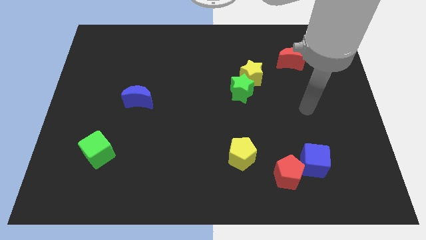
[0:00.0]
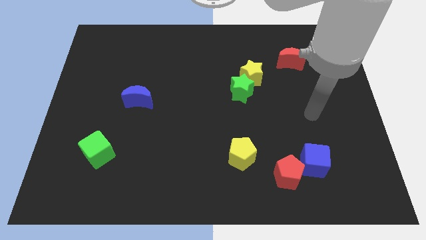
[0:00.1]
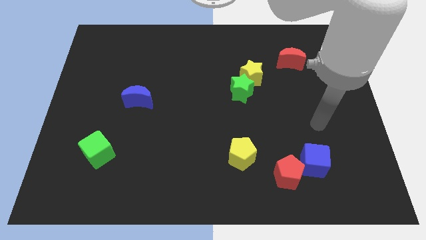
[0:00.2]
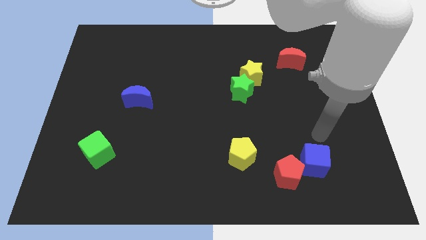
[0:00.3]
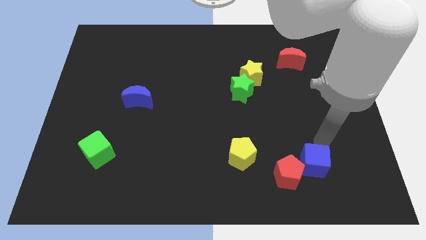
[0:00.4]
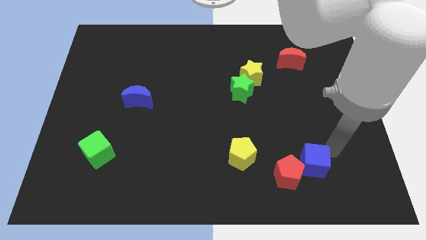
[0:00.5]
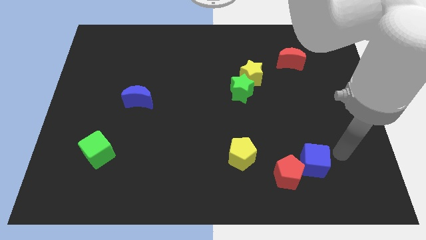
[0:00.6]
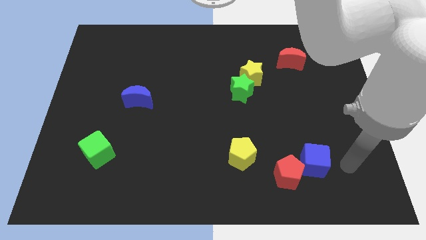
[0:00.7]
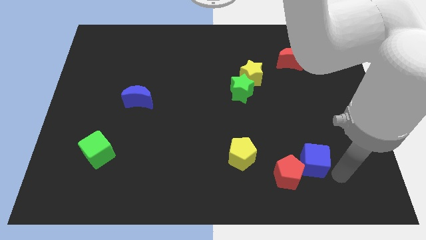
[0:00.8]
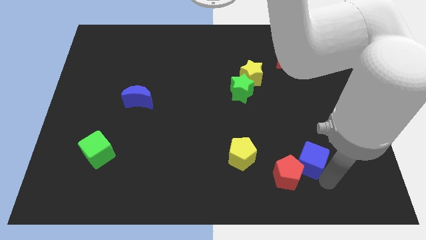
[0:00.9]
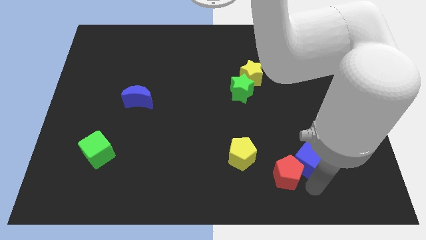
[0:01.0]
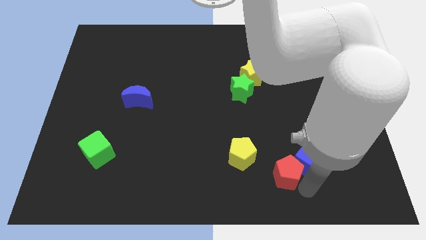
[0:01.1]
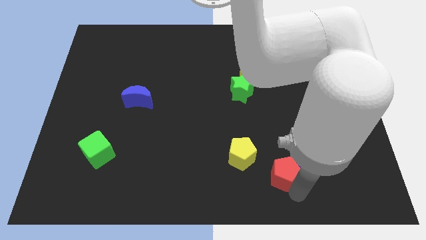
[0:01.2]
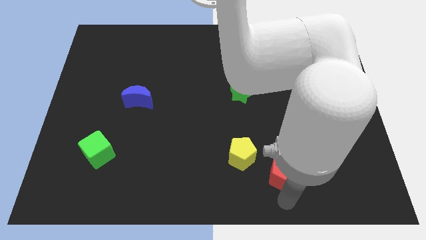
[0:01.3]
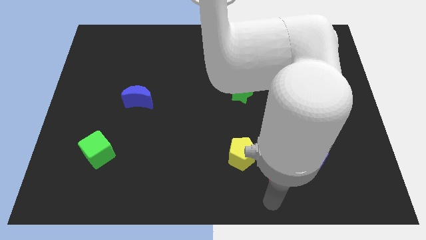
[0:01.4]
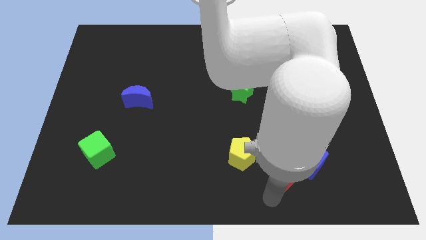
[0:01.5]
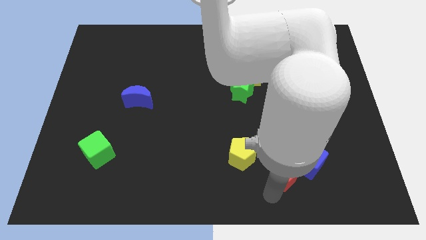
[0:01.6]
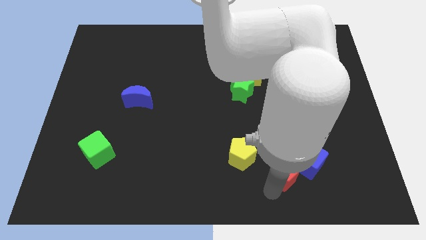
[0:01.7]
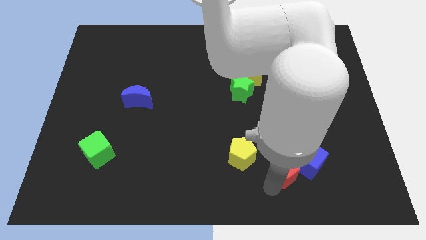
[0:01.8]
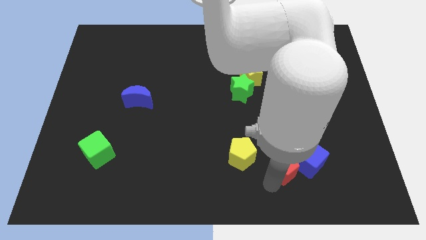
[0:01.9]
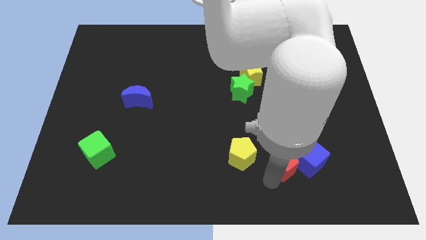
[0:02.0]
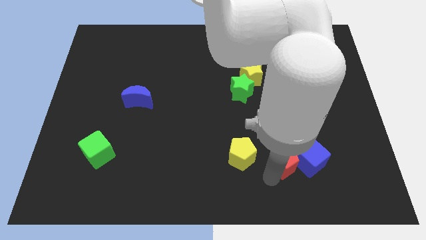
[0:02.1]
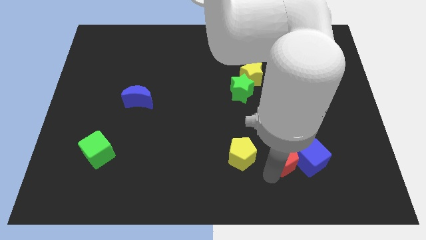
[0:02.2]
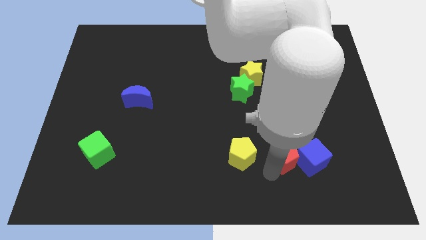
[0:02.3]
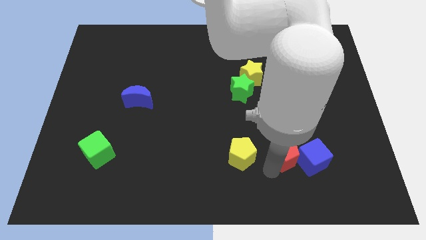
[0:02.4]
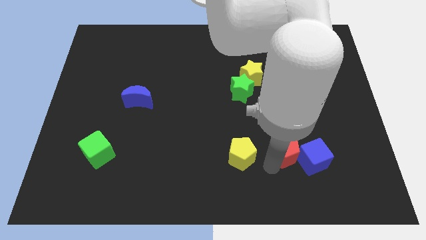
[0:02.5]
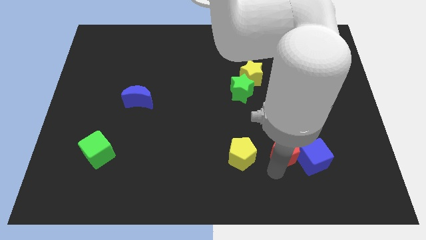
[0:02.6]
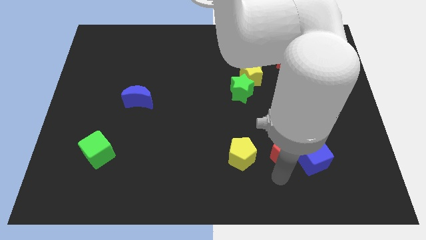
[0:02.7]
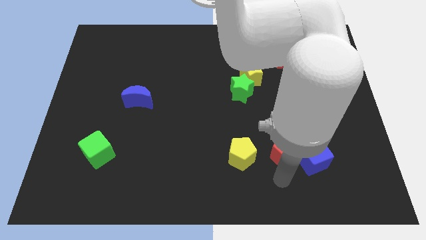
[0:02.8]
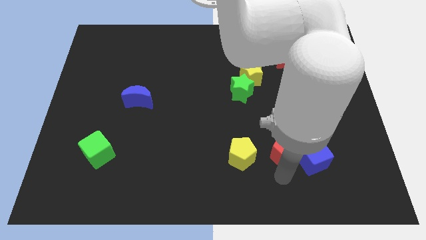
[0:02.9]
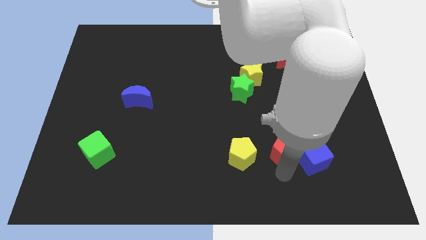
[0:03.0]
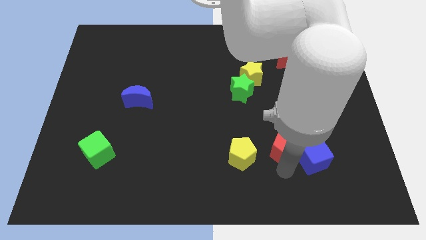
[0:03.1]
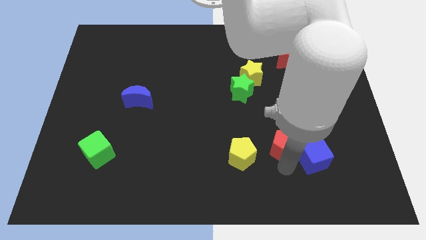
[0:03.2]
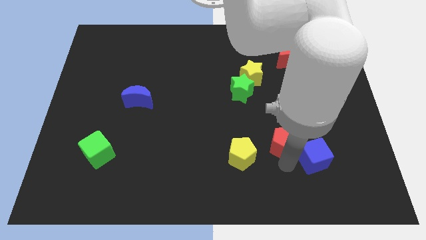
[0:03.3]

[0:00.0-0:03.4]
move the red pentagon upwards a little bit

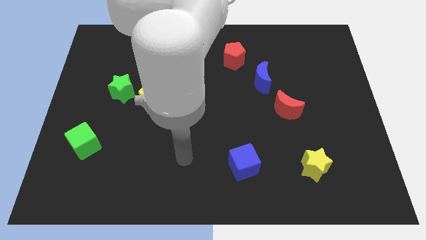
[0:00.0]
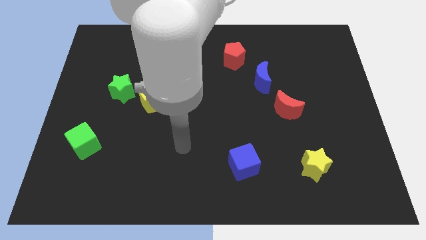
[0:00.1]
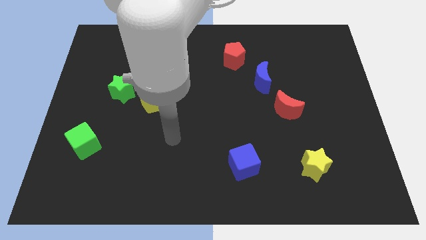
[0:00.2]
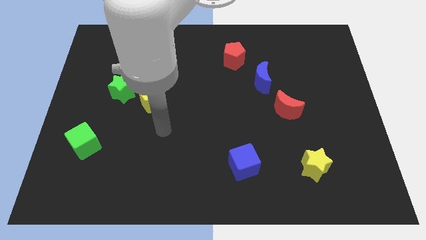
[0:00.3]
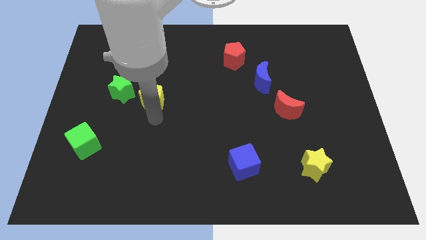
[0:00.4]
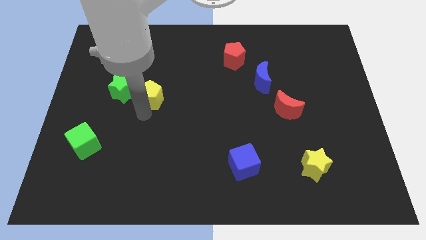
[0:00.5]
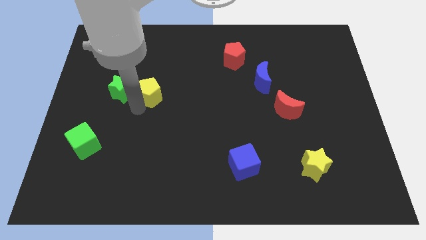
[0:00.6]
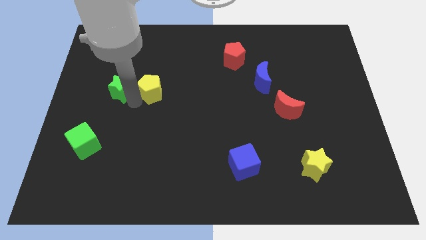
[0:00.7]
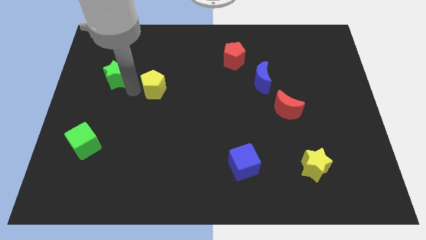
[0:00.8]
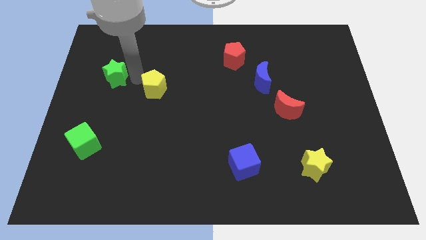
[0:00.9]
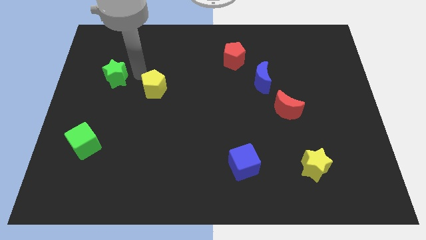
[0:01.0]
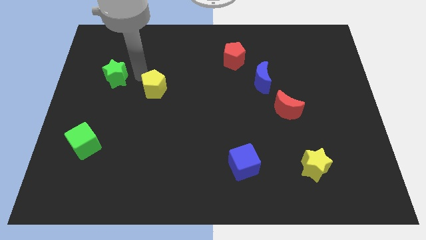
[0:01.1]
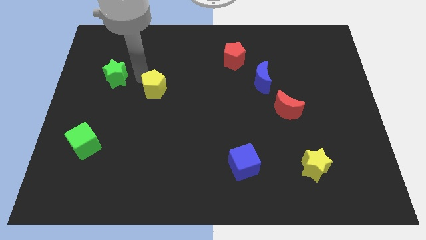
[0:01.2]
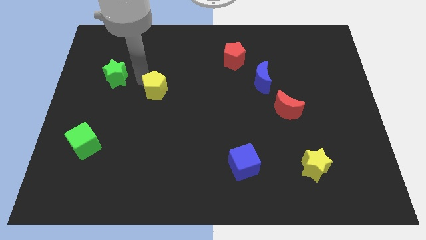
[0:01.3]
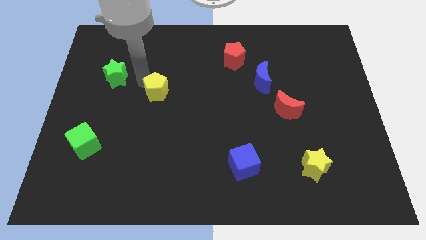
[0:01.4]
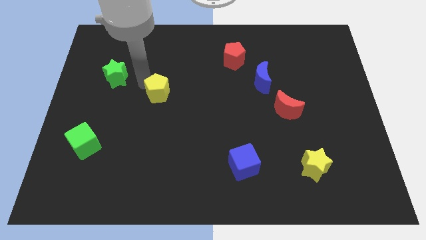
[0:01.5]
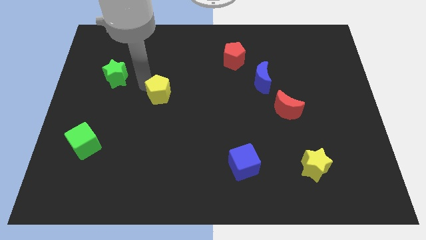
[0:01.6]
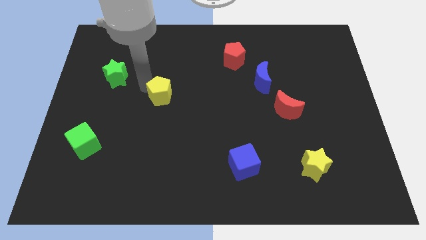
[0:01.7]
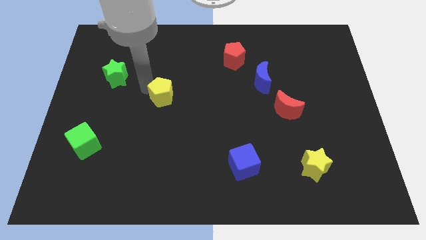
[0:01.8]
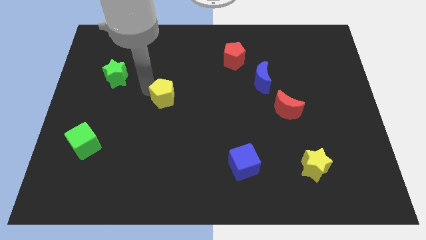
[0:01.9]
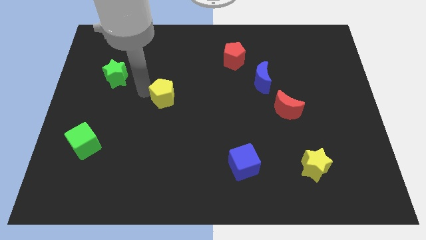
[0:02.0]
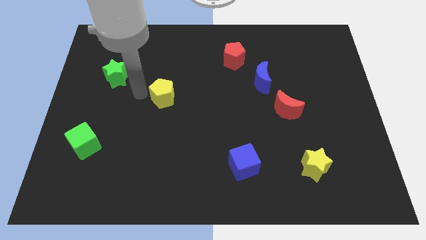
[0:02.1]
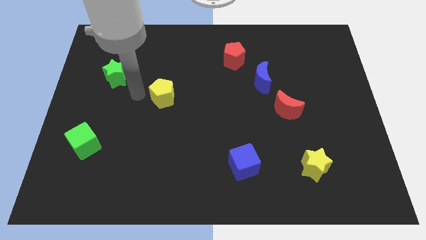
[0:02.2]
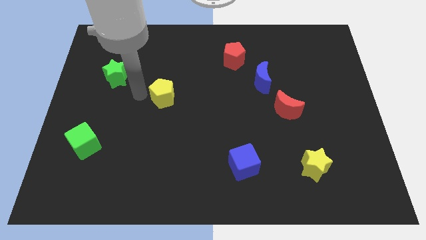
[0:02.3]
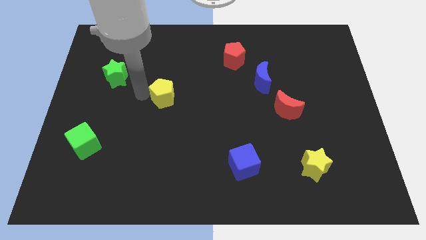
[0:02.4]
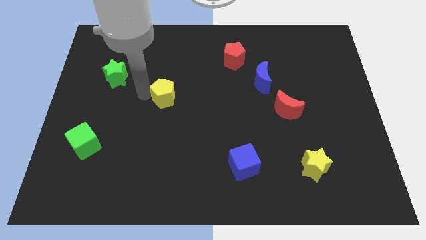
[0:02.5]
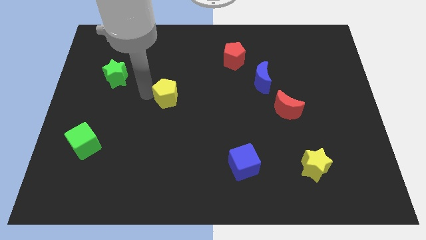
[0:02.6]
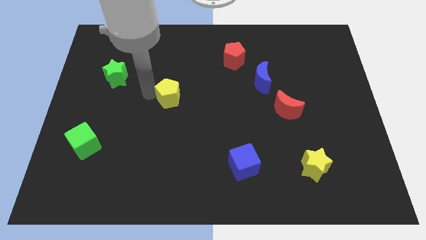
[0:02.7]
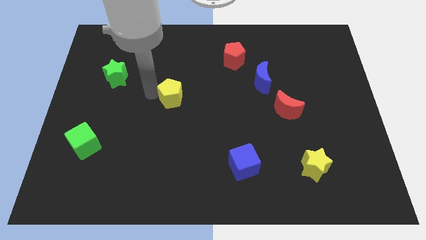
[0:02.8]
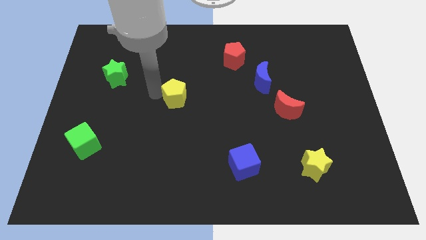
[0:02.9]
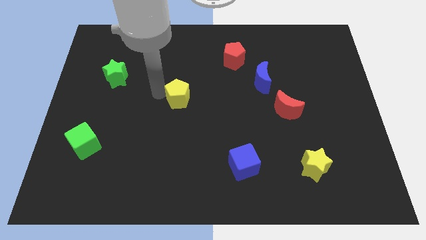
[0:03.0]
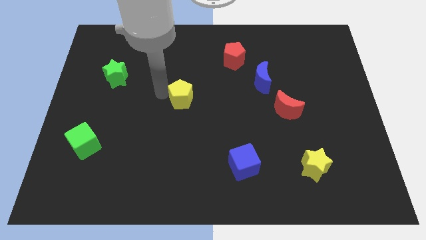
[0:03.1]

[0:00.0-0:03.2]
slightly move the yellow pentagon to the right

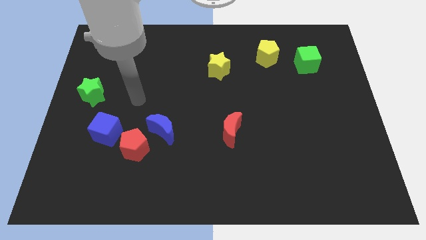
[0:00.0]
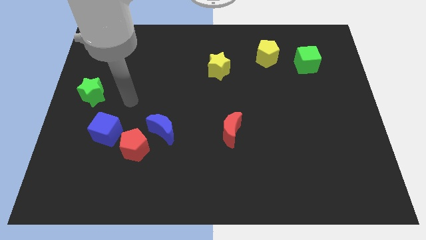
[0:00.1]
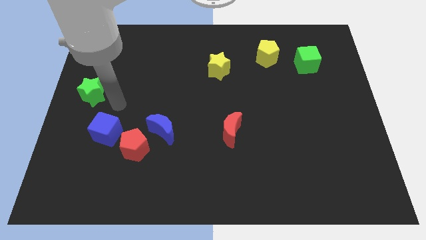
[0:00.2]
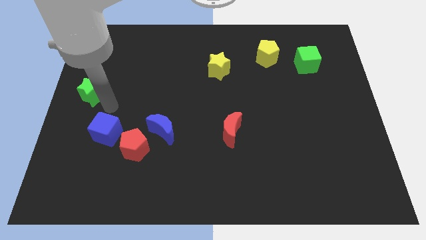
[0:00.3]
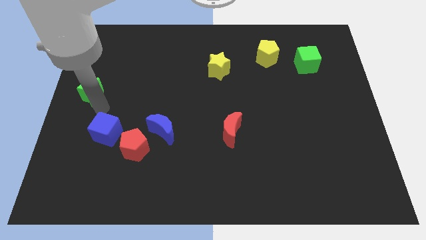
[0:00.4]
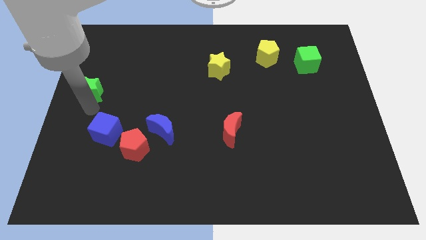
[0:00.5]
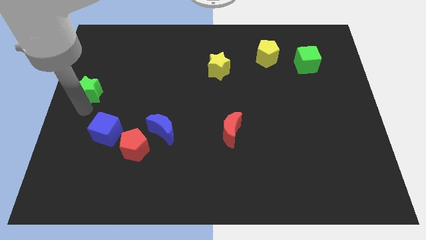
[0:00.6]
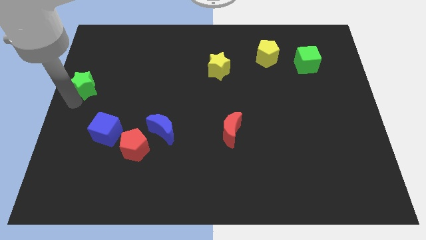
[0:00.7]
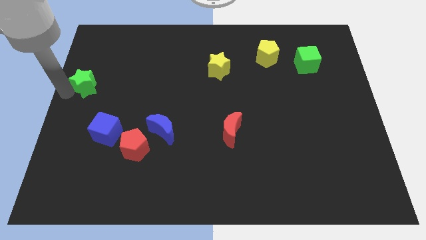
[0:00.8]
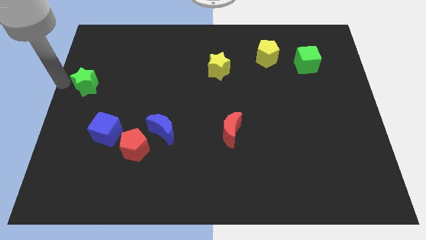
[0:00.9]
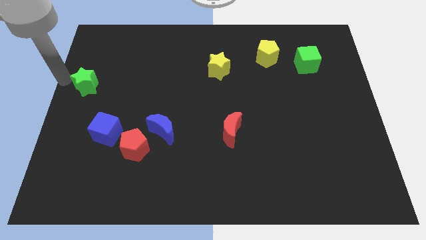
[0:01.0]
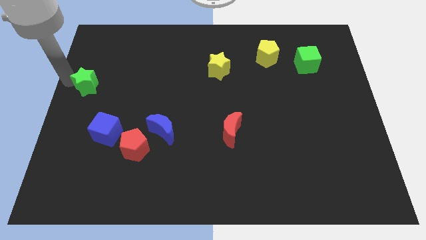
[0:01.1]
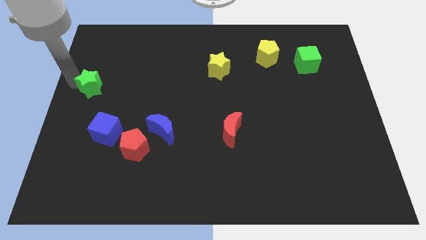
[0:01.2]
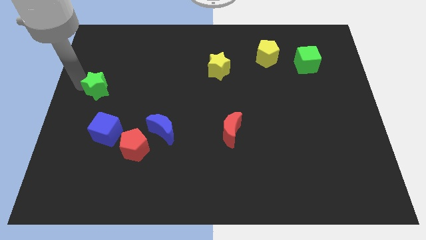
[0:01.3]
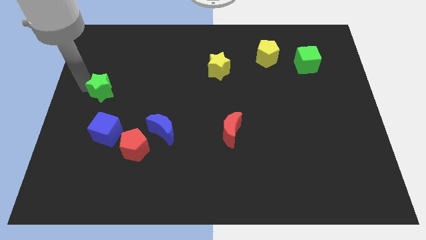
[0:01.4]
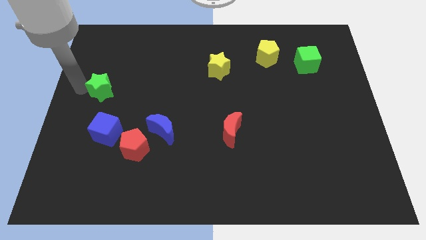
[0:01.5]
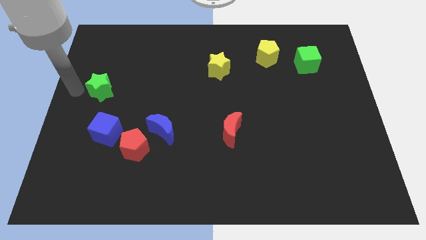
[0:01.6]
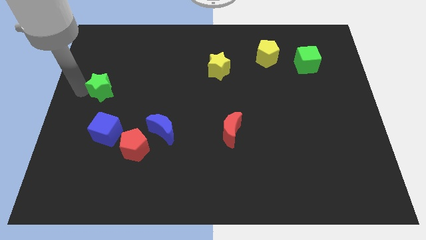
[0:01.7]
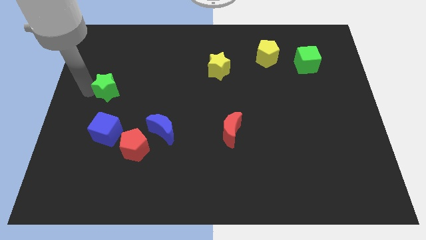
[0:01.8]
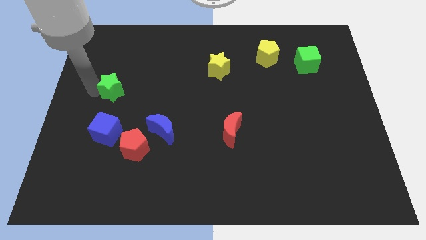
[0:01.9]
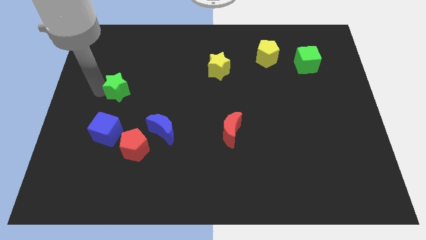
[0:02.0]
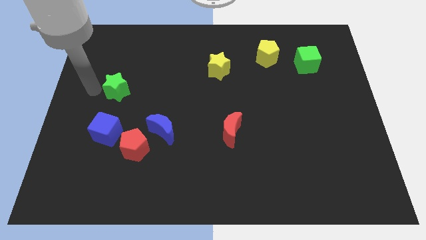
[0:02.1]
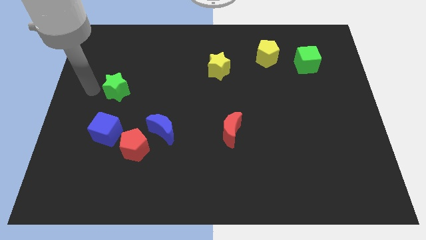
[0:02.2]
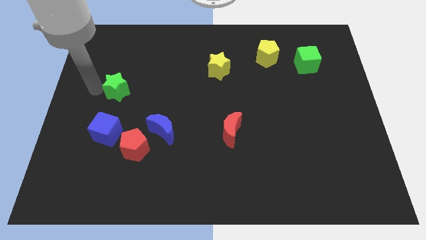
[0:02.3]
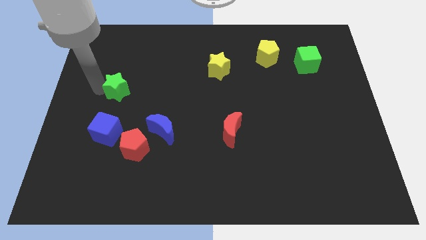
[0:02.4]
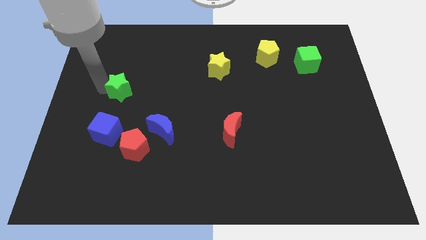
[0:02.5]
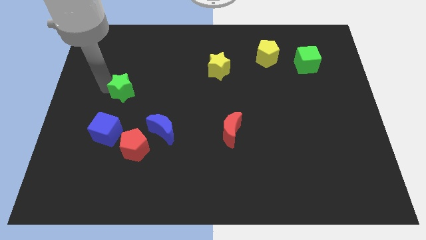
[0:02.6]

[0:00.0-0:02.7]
slide the green star right a little bit
